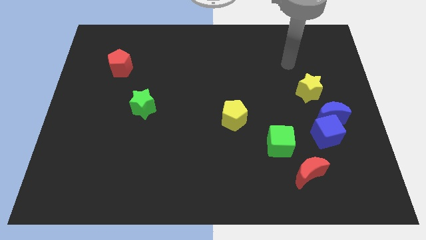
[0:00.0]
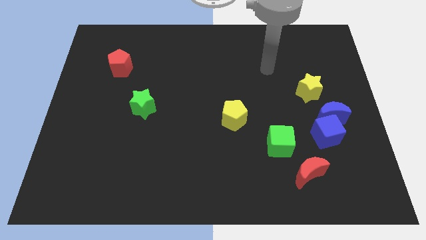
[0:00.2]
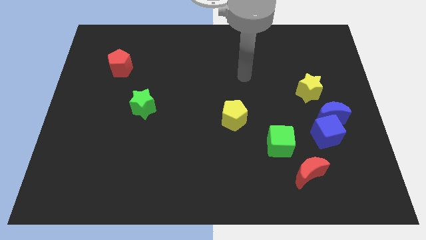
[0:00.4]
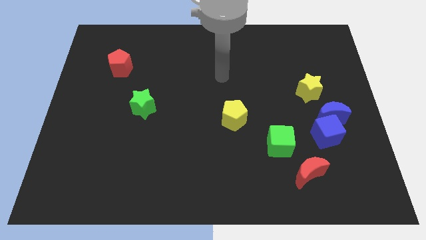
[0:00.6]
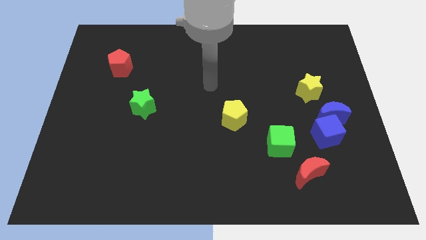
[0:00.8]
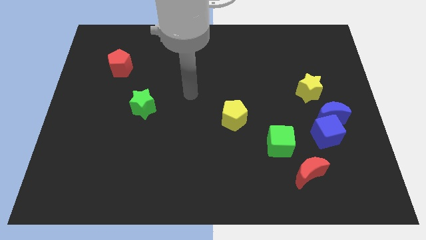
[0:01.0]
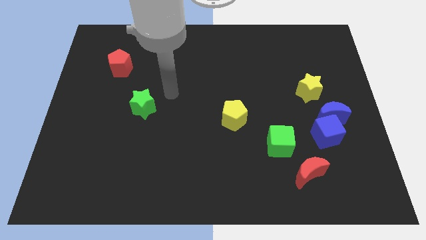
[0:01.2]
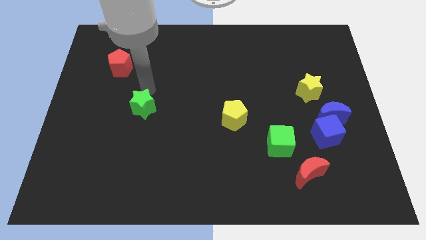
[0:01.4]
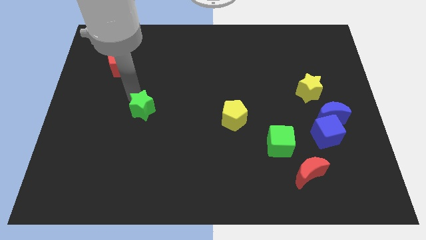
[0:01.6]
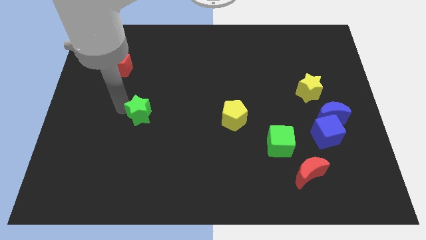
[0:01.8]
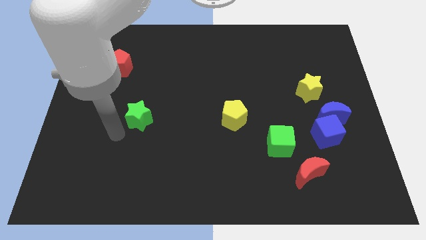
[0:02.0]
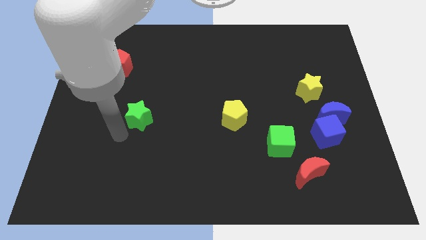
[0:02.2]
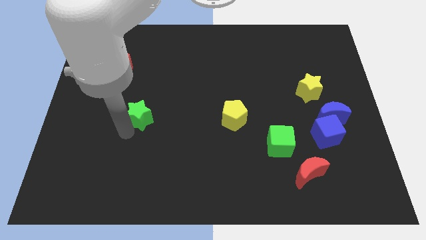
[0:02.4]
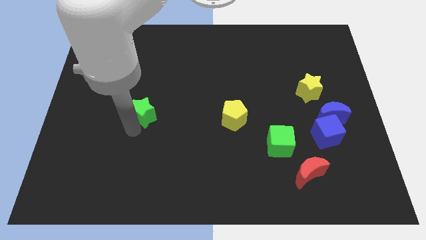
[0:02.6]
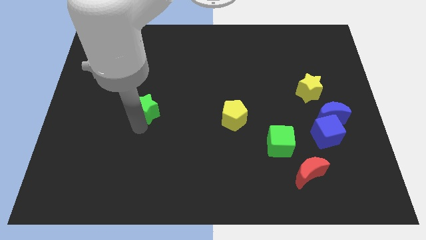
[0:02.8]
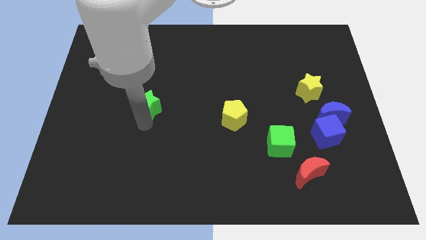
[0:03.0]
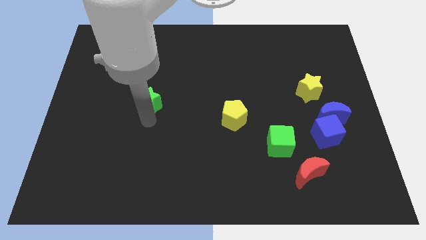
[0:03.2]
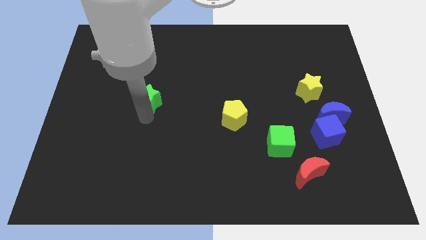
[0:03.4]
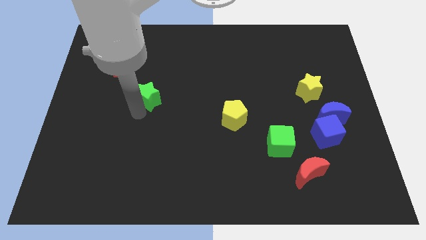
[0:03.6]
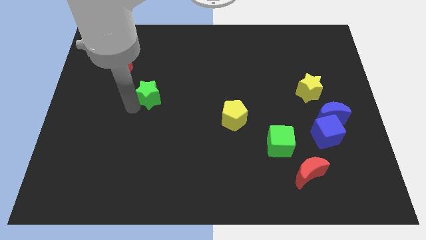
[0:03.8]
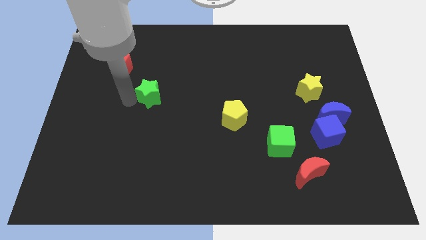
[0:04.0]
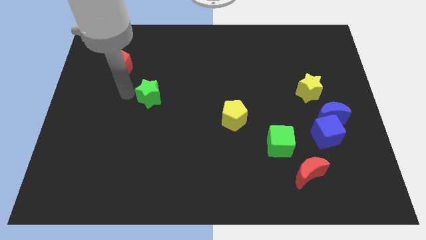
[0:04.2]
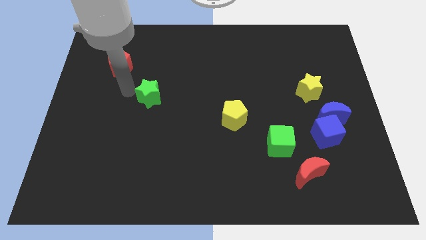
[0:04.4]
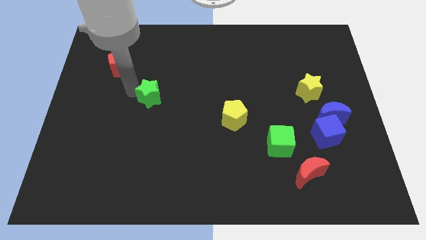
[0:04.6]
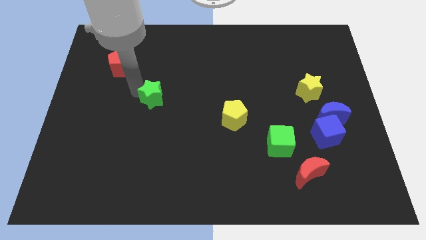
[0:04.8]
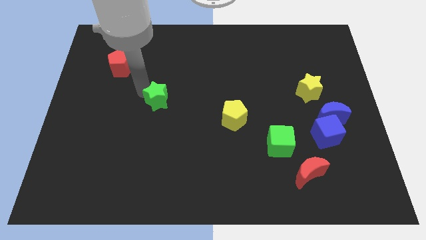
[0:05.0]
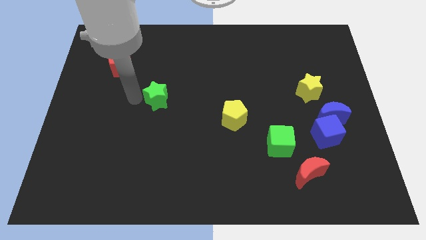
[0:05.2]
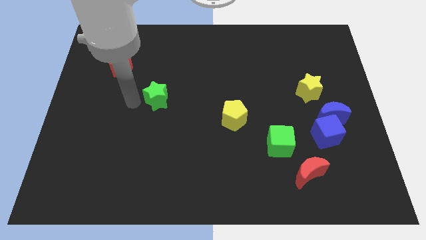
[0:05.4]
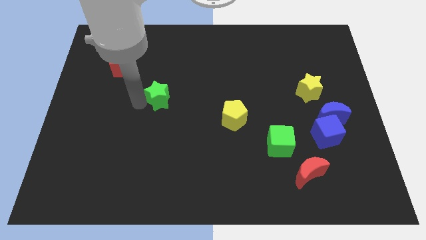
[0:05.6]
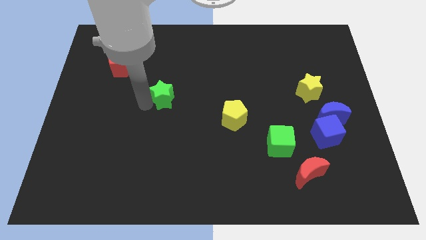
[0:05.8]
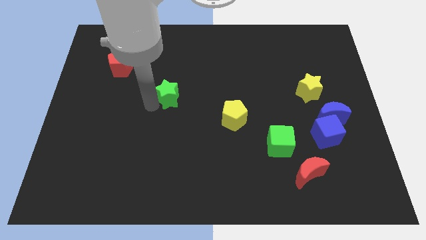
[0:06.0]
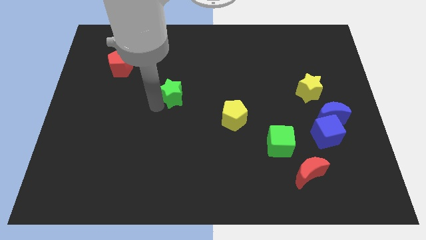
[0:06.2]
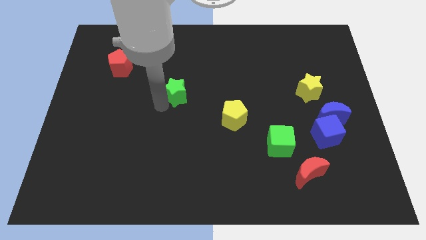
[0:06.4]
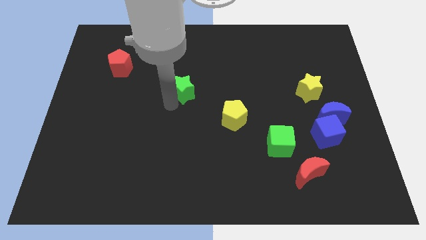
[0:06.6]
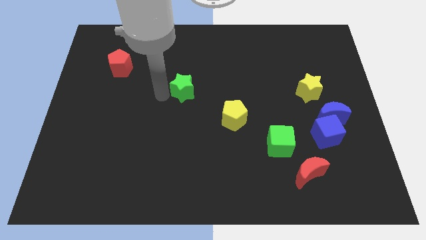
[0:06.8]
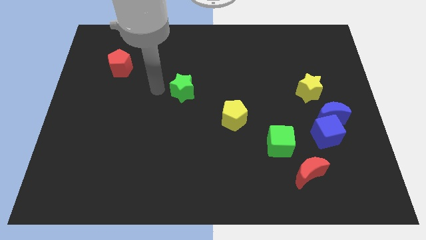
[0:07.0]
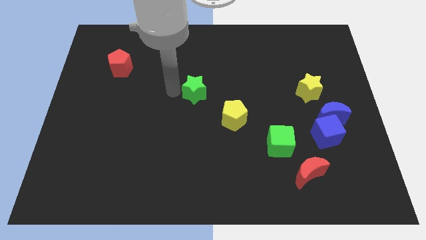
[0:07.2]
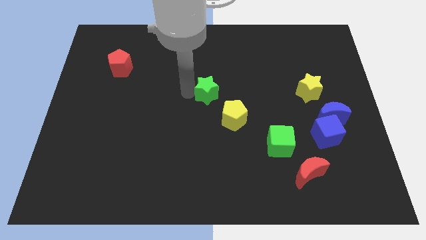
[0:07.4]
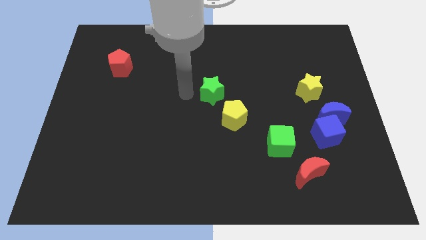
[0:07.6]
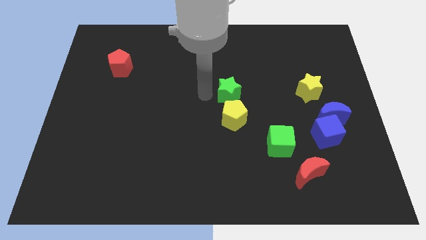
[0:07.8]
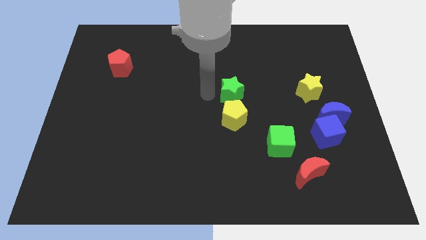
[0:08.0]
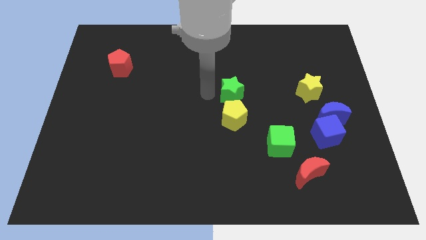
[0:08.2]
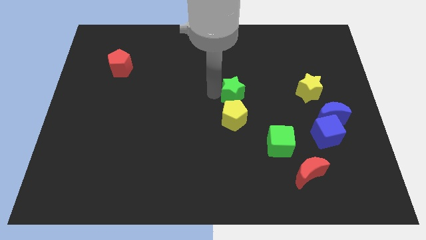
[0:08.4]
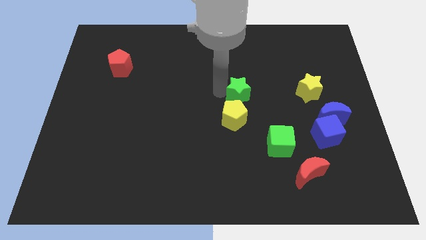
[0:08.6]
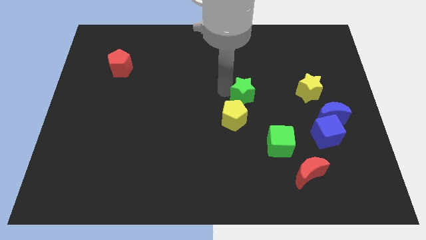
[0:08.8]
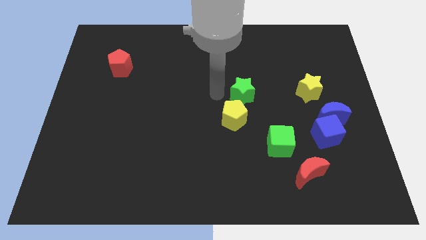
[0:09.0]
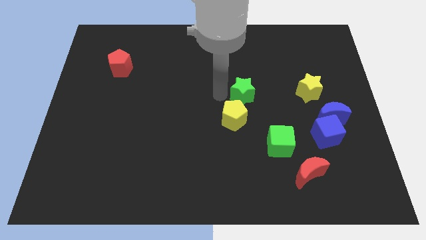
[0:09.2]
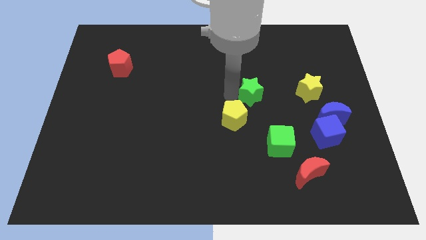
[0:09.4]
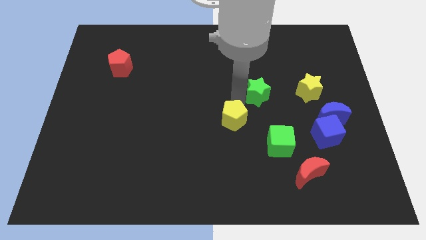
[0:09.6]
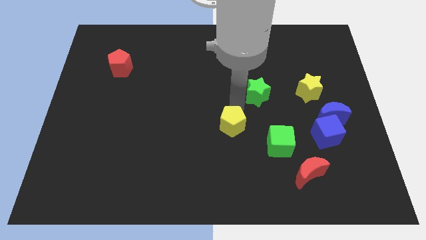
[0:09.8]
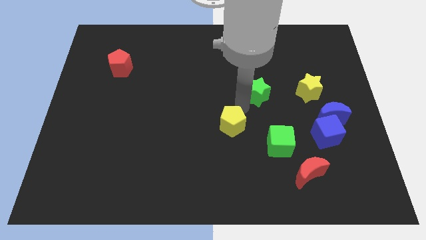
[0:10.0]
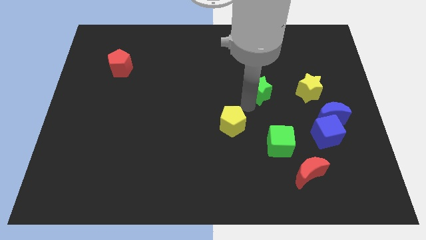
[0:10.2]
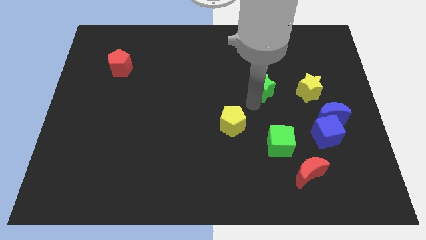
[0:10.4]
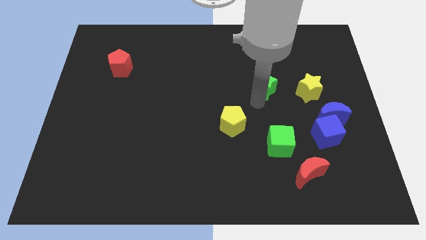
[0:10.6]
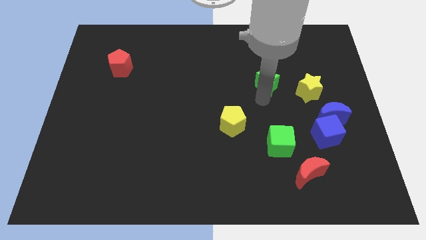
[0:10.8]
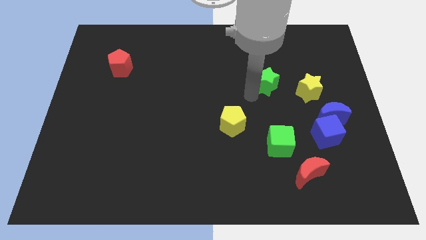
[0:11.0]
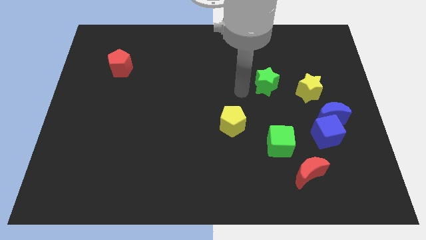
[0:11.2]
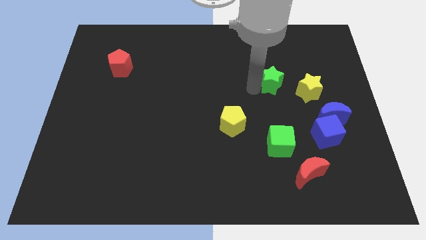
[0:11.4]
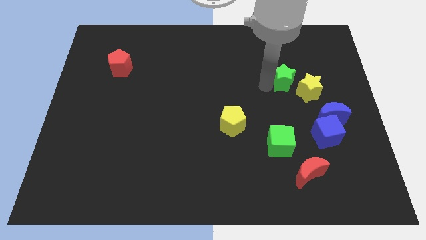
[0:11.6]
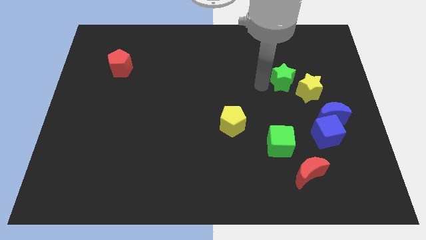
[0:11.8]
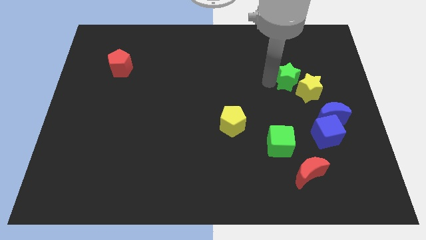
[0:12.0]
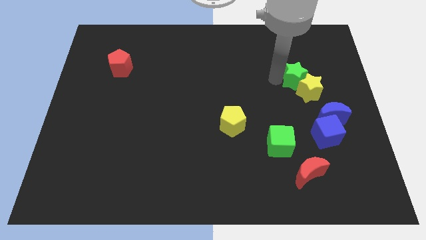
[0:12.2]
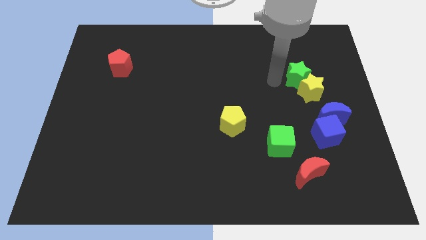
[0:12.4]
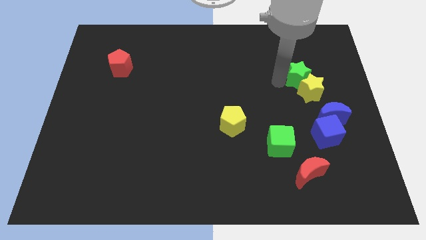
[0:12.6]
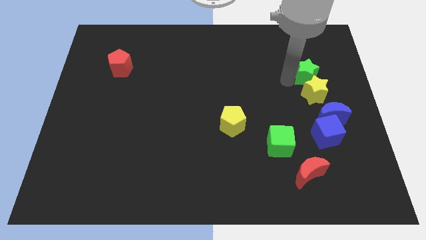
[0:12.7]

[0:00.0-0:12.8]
push the green star to the top right of the yellow star

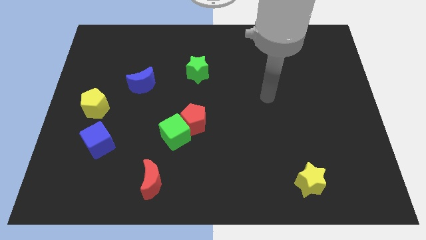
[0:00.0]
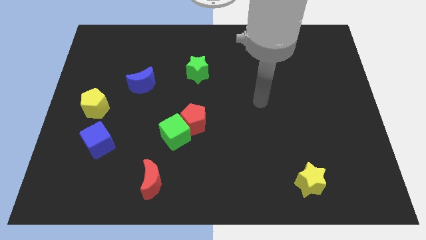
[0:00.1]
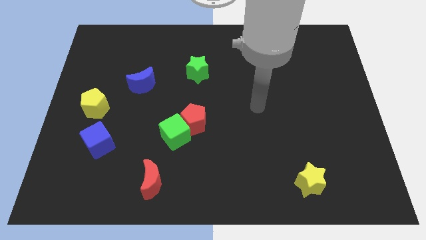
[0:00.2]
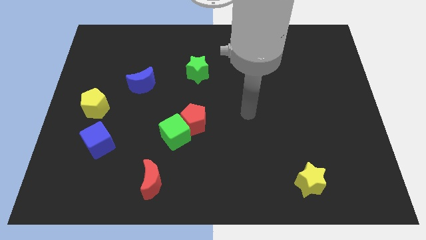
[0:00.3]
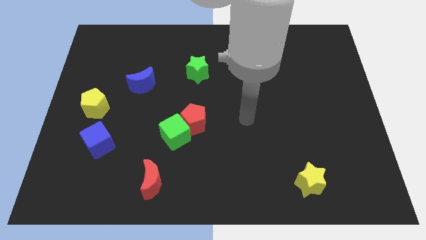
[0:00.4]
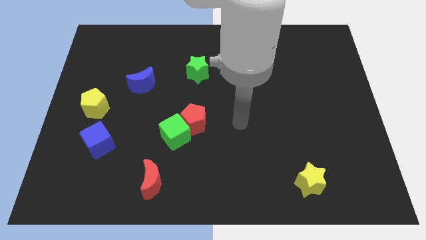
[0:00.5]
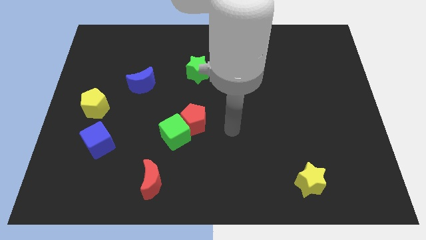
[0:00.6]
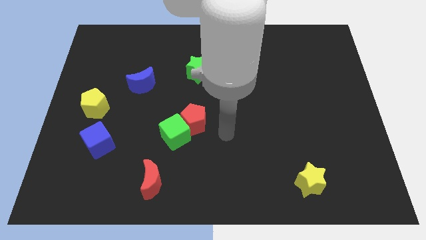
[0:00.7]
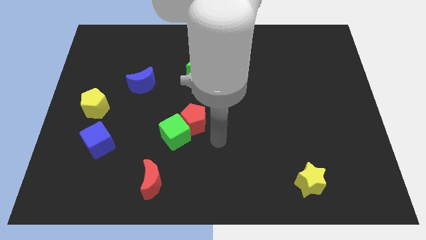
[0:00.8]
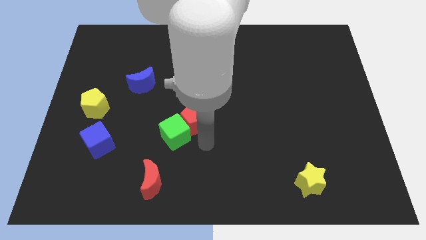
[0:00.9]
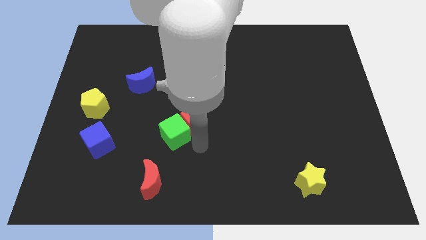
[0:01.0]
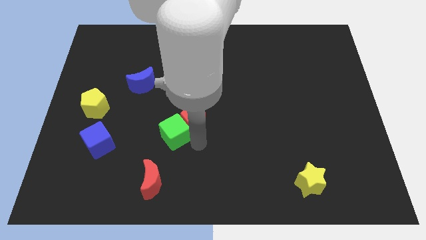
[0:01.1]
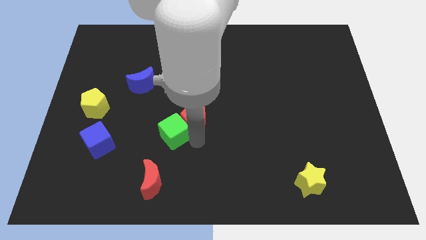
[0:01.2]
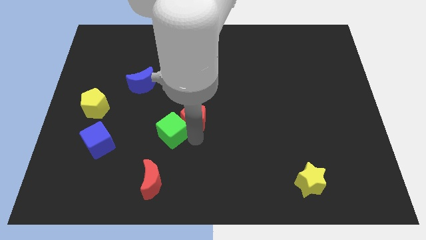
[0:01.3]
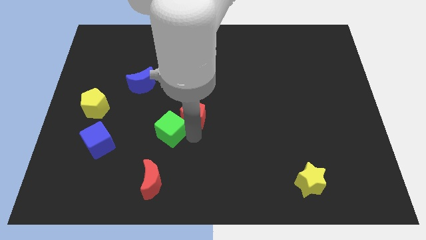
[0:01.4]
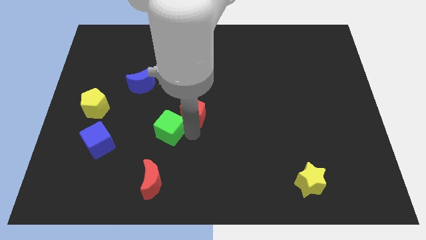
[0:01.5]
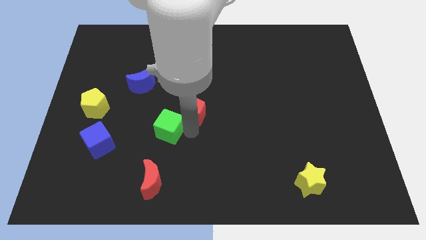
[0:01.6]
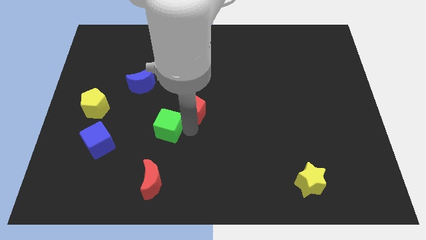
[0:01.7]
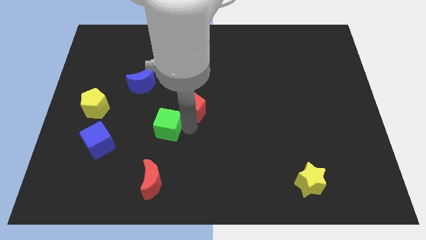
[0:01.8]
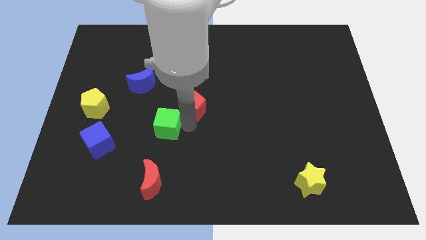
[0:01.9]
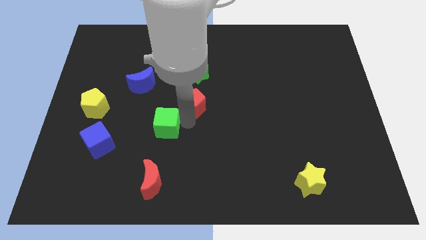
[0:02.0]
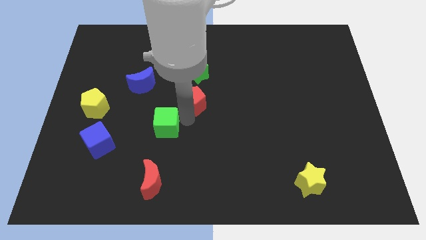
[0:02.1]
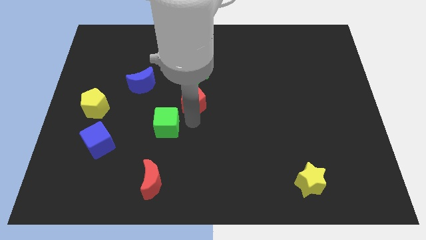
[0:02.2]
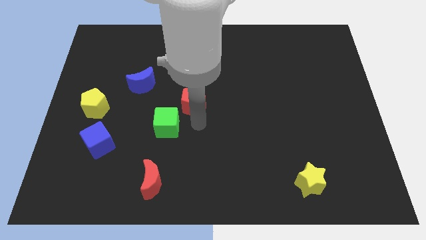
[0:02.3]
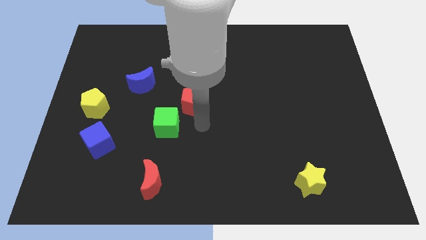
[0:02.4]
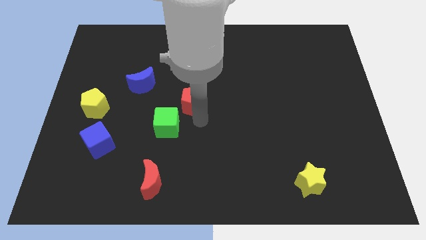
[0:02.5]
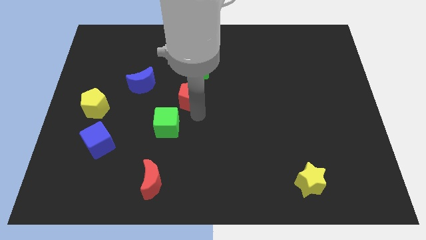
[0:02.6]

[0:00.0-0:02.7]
move the red pentagon to the right of the blue moon
